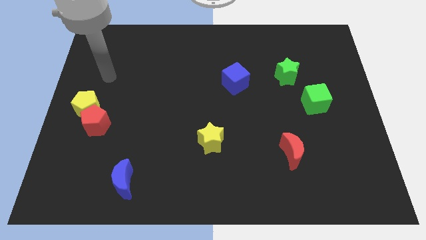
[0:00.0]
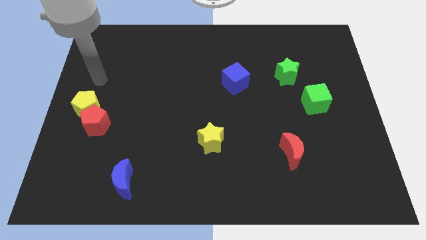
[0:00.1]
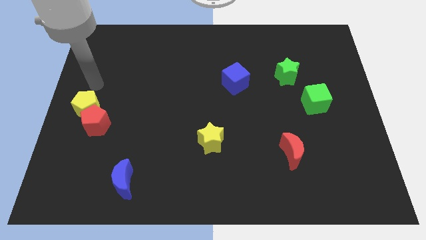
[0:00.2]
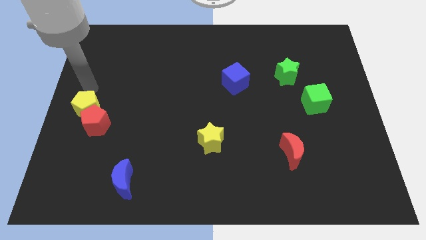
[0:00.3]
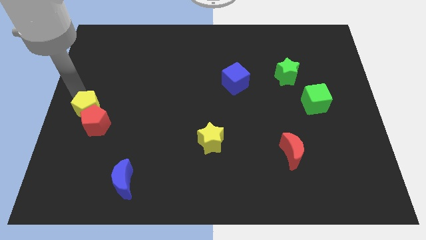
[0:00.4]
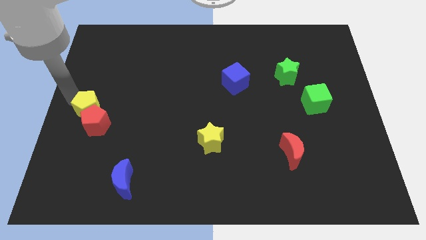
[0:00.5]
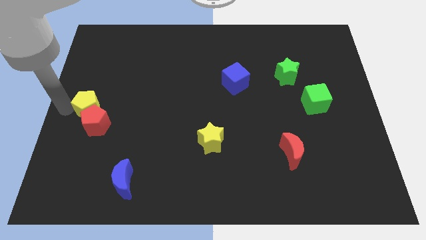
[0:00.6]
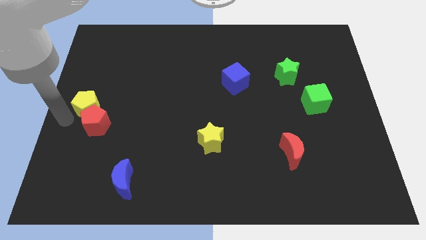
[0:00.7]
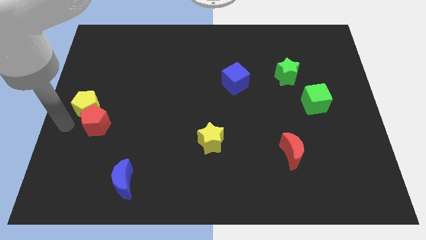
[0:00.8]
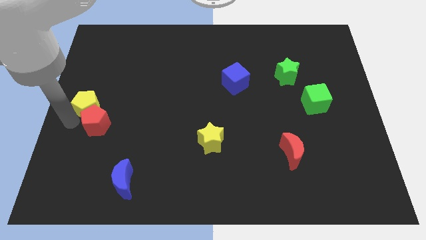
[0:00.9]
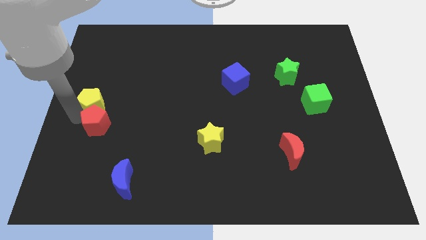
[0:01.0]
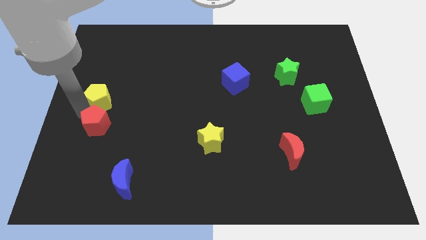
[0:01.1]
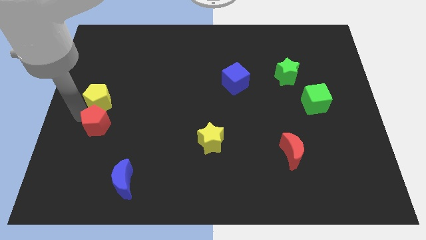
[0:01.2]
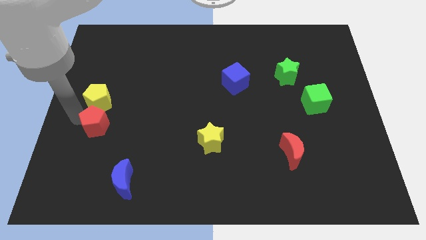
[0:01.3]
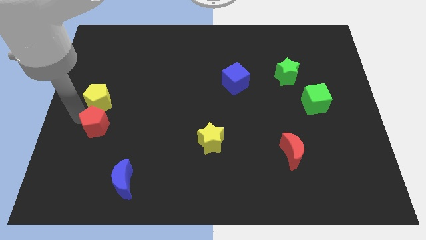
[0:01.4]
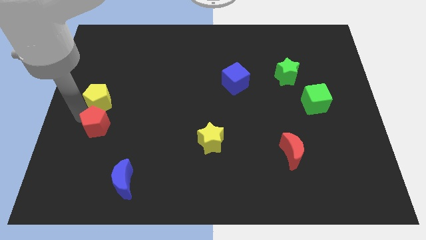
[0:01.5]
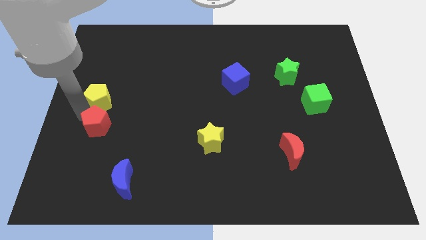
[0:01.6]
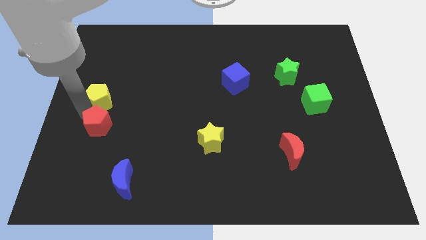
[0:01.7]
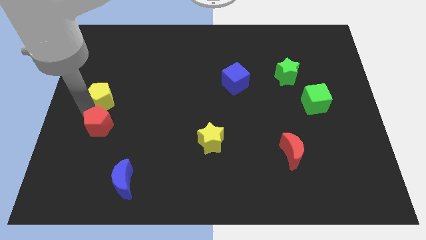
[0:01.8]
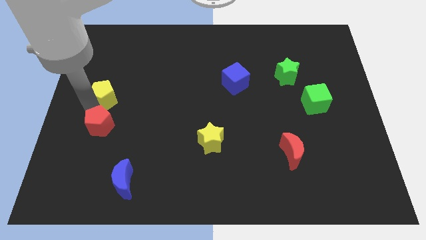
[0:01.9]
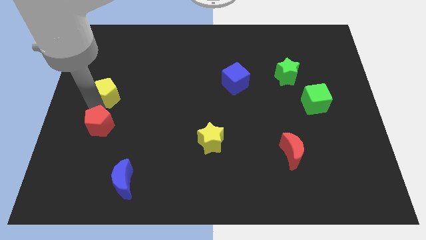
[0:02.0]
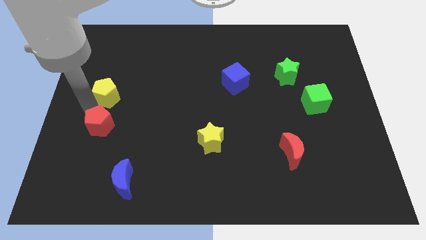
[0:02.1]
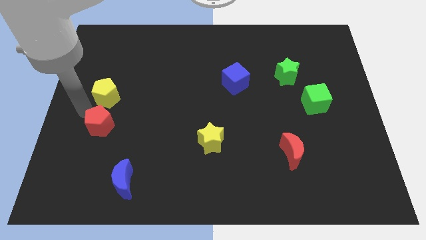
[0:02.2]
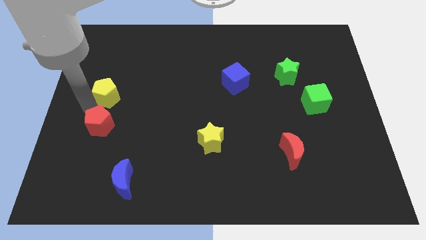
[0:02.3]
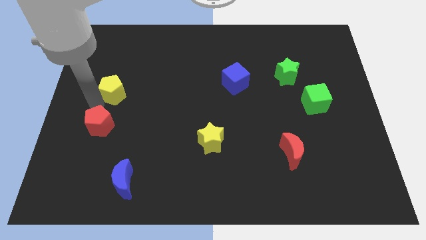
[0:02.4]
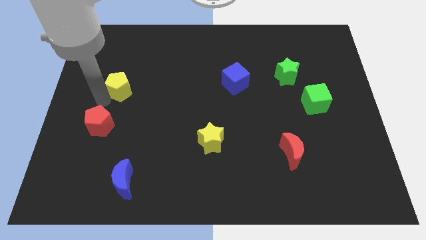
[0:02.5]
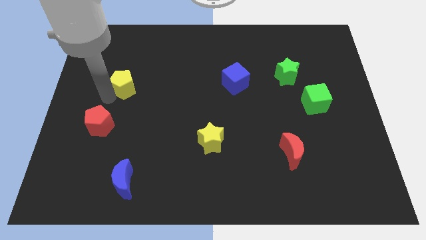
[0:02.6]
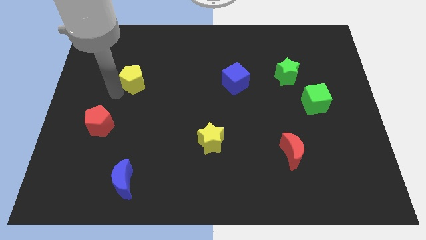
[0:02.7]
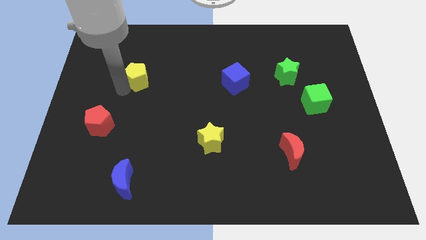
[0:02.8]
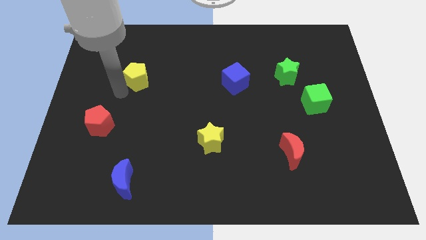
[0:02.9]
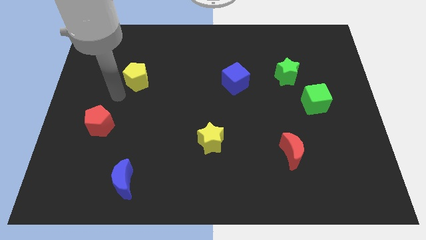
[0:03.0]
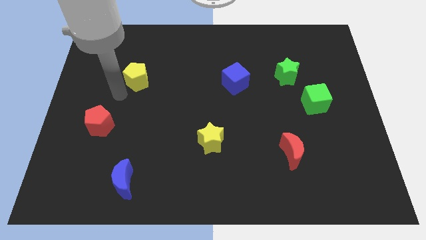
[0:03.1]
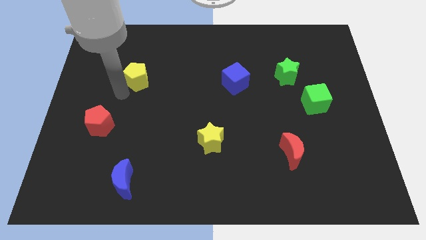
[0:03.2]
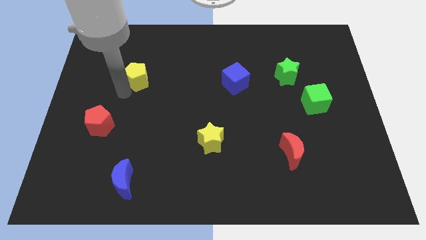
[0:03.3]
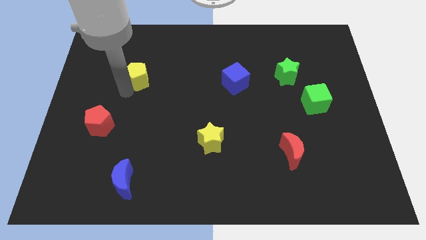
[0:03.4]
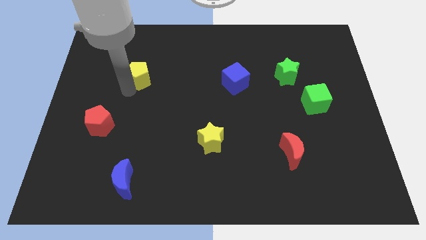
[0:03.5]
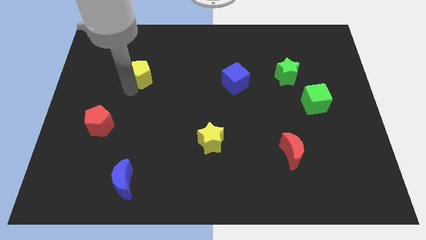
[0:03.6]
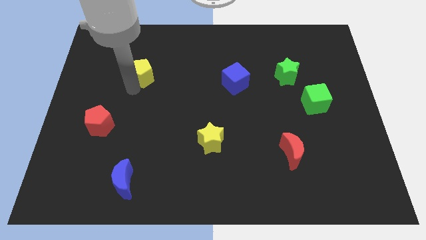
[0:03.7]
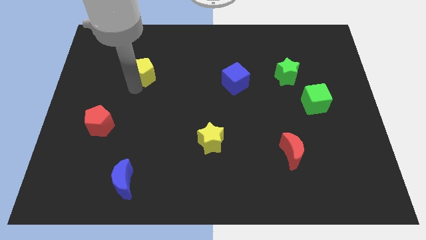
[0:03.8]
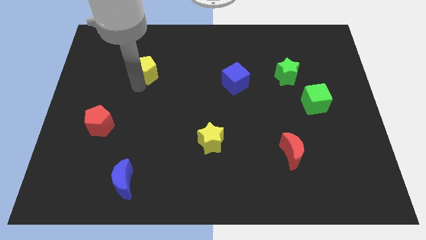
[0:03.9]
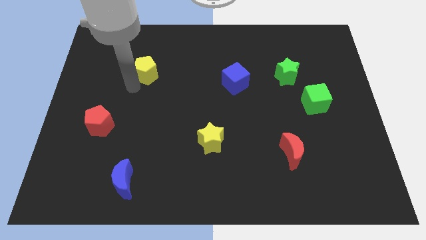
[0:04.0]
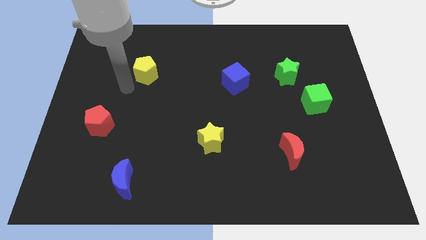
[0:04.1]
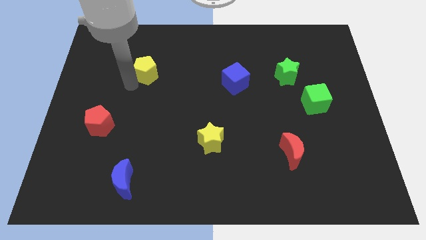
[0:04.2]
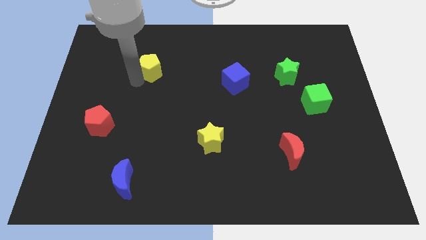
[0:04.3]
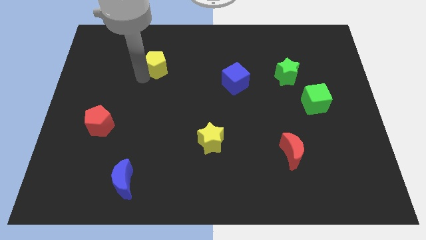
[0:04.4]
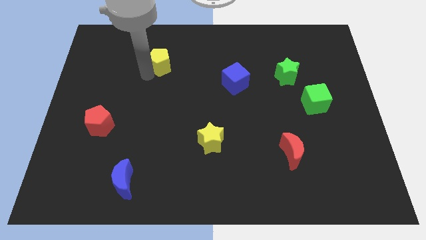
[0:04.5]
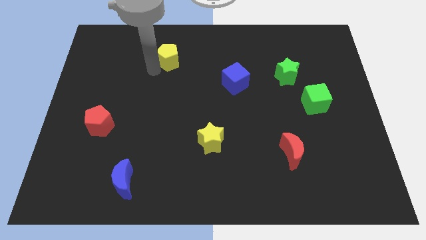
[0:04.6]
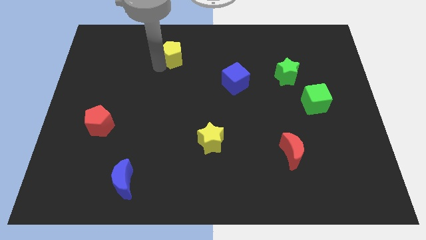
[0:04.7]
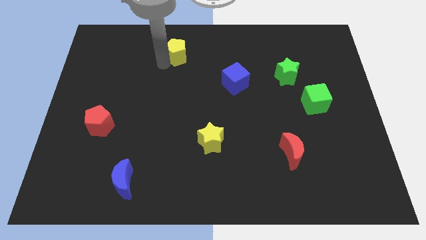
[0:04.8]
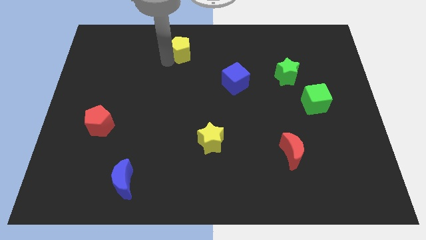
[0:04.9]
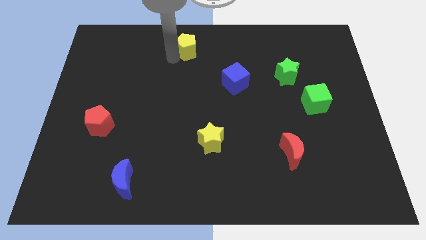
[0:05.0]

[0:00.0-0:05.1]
put the yellow pentagon to the towards your base

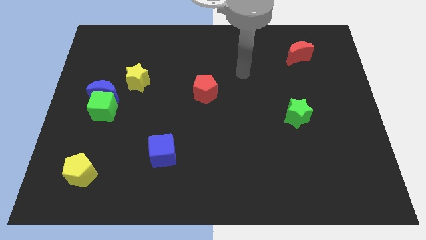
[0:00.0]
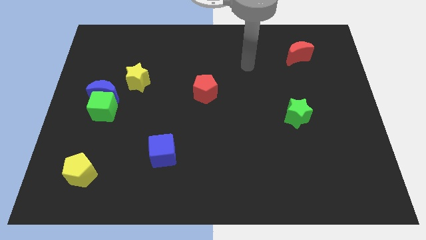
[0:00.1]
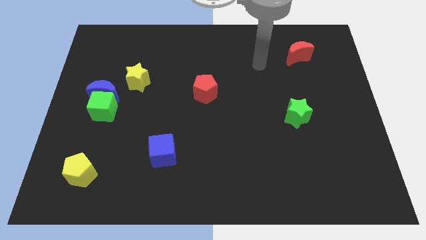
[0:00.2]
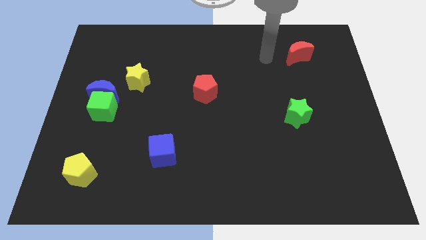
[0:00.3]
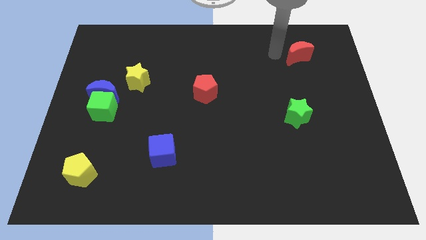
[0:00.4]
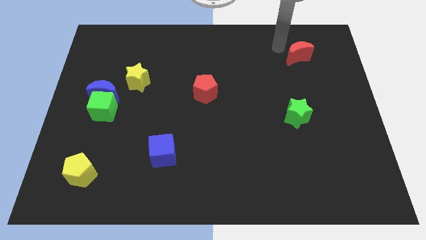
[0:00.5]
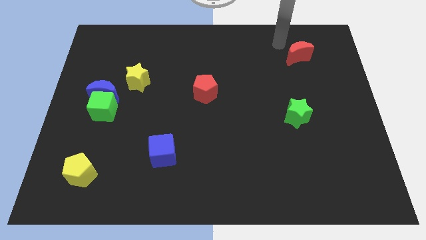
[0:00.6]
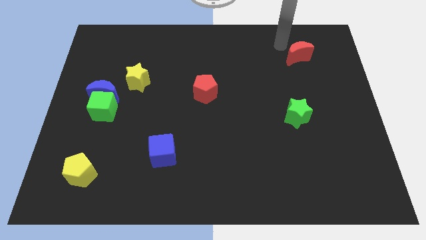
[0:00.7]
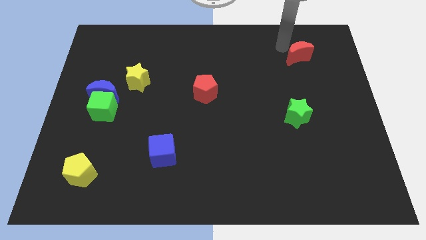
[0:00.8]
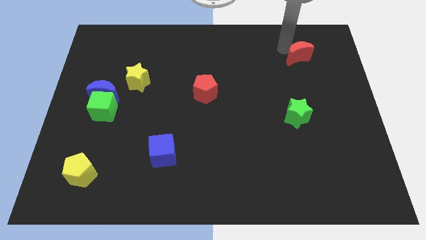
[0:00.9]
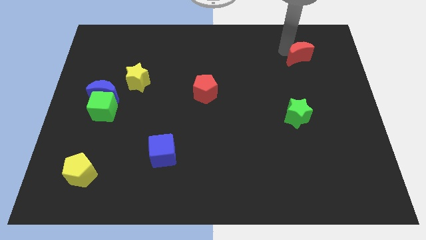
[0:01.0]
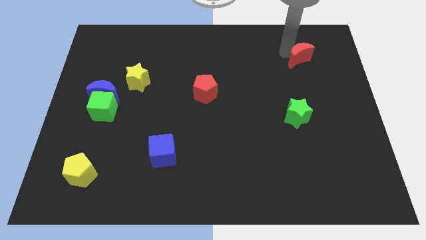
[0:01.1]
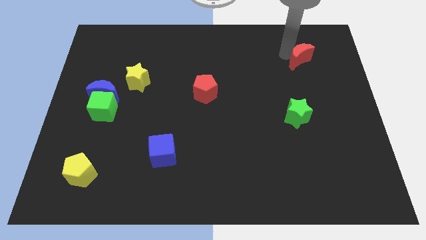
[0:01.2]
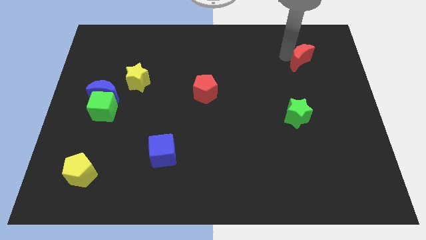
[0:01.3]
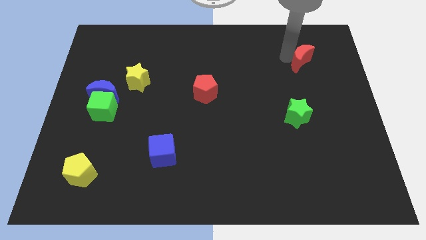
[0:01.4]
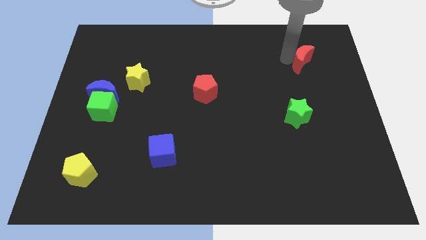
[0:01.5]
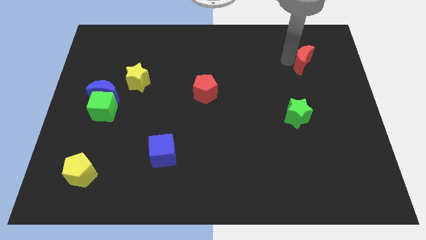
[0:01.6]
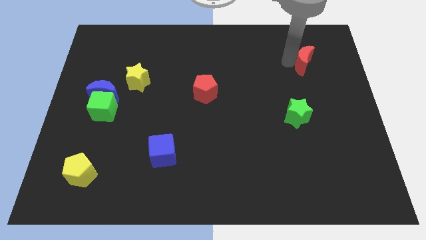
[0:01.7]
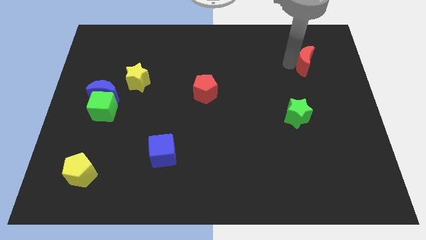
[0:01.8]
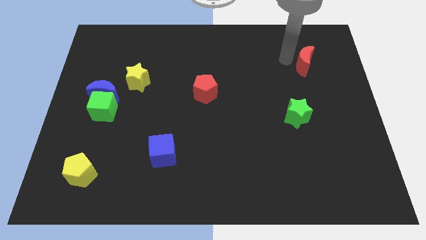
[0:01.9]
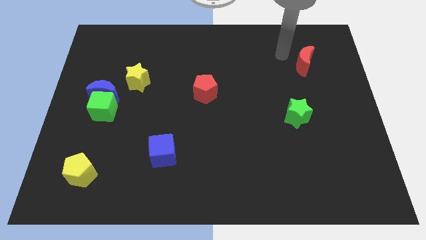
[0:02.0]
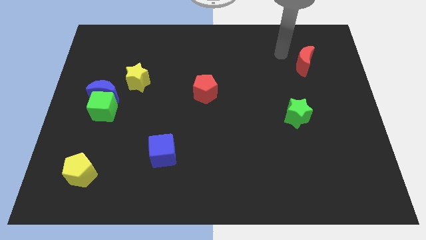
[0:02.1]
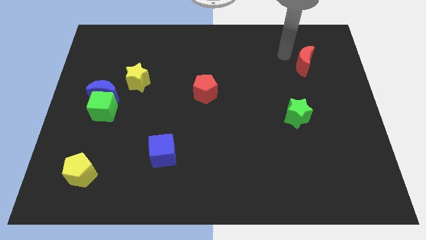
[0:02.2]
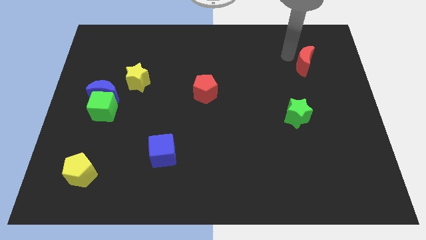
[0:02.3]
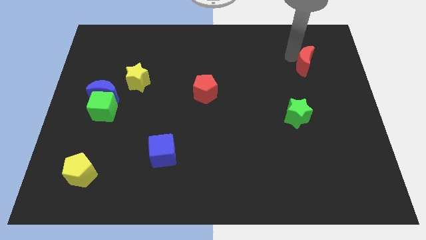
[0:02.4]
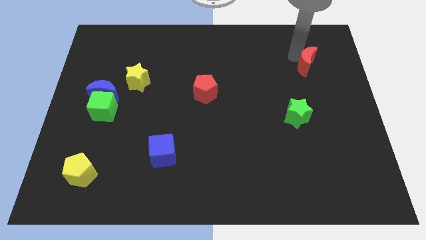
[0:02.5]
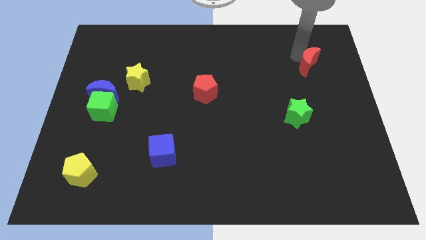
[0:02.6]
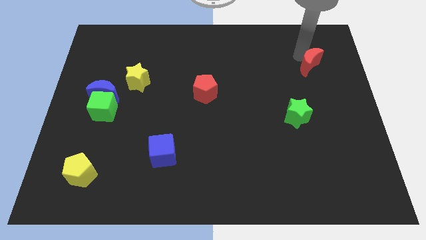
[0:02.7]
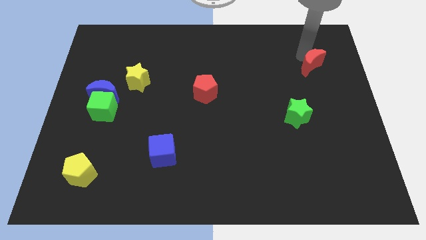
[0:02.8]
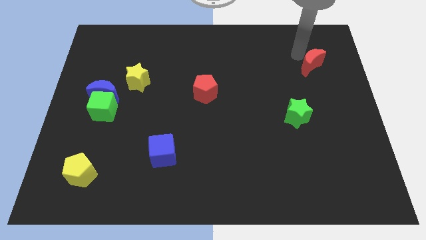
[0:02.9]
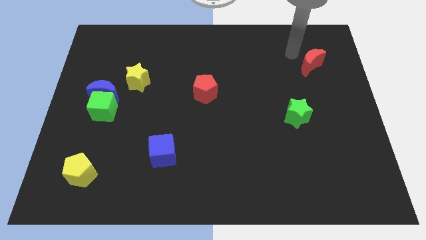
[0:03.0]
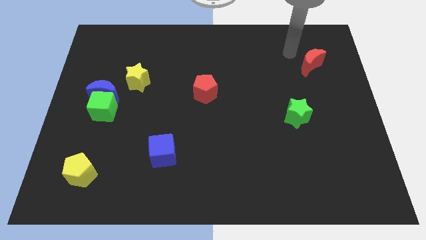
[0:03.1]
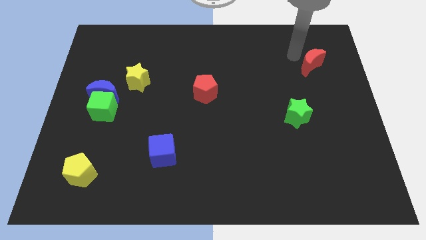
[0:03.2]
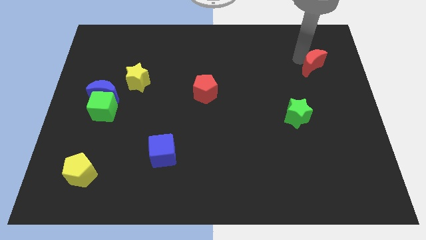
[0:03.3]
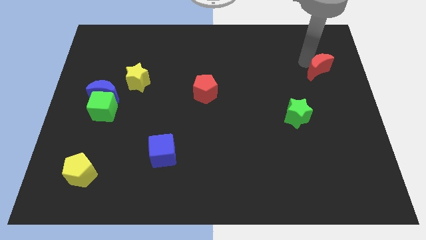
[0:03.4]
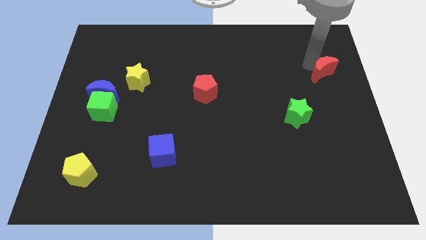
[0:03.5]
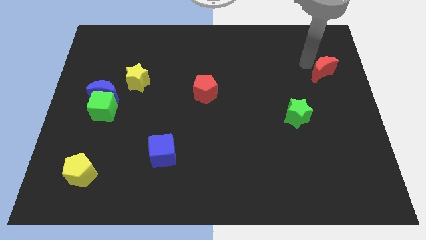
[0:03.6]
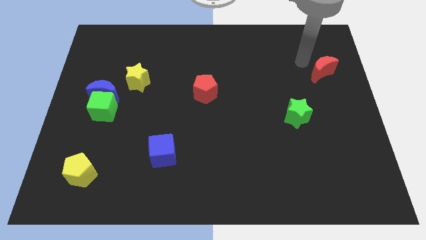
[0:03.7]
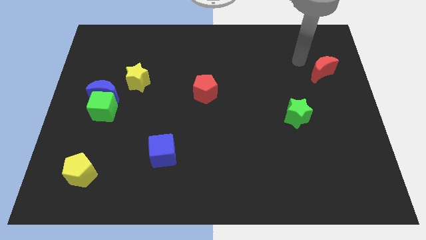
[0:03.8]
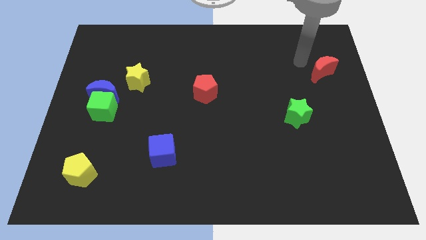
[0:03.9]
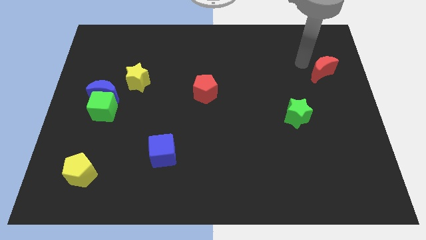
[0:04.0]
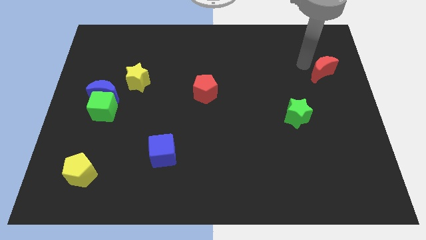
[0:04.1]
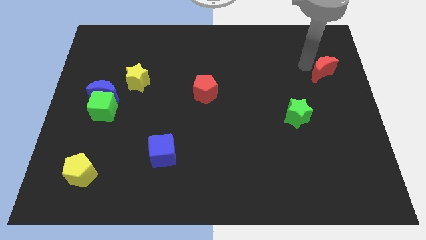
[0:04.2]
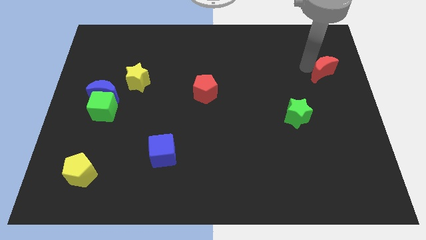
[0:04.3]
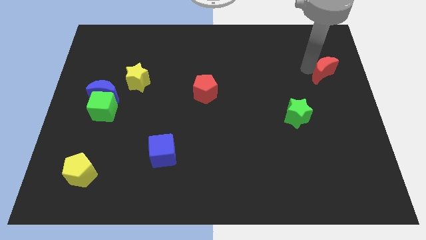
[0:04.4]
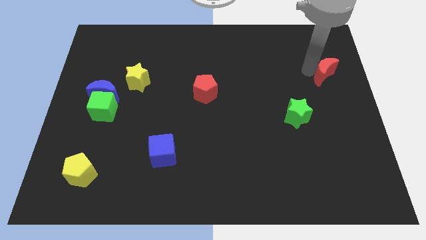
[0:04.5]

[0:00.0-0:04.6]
push the red moon to the center right
